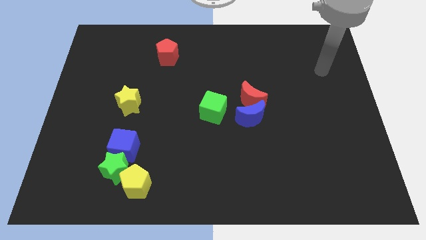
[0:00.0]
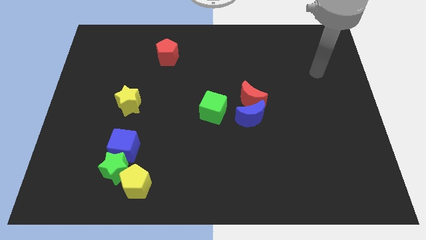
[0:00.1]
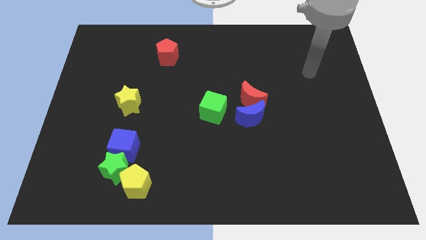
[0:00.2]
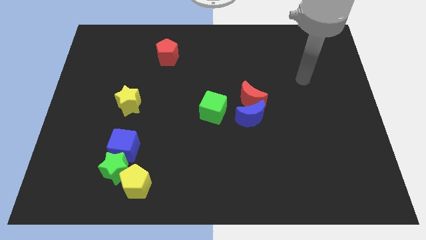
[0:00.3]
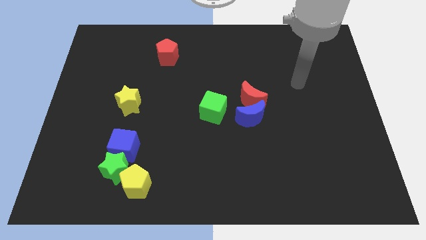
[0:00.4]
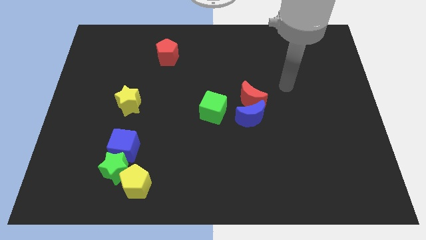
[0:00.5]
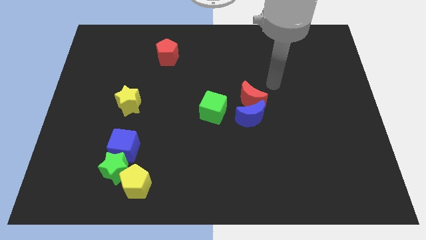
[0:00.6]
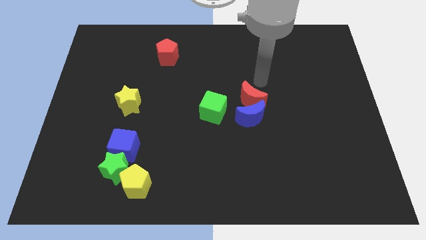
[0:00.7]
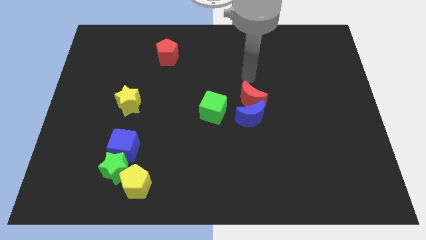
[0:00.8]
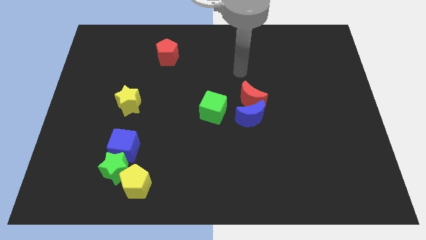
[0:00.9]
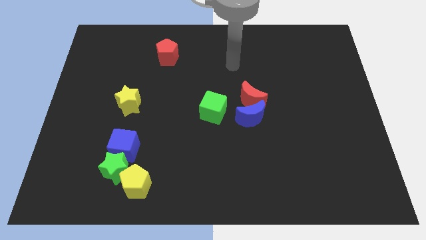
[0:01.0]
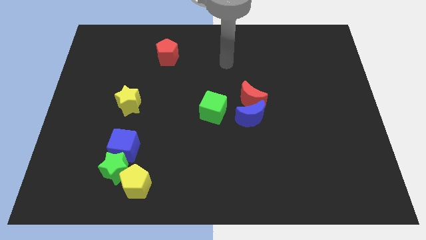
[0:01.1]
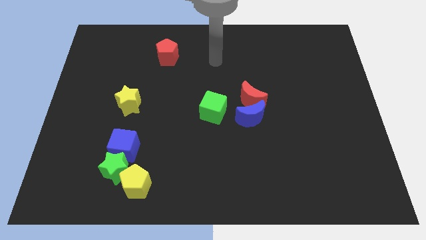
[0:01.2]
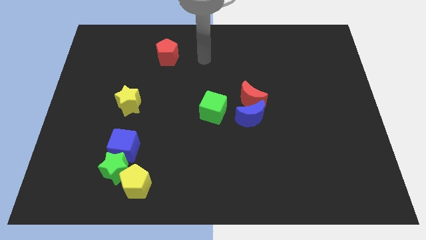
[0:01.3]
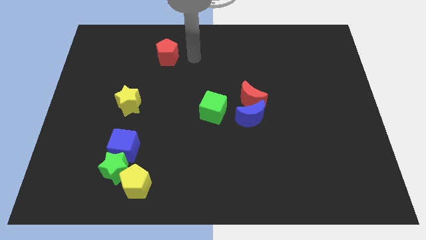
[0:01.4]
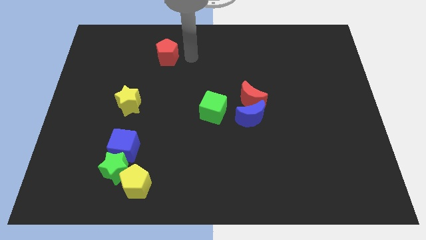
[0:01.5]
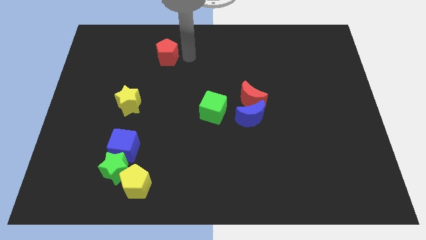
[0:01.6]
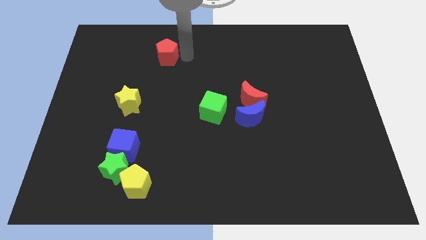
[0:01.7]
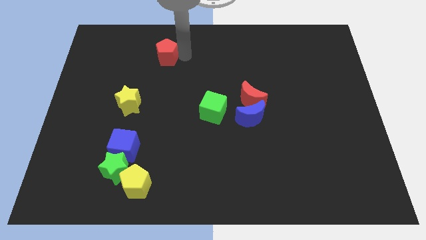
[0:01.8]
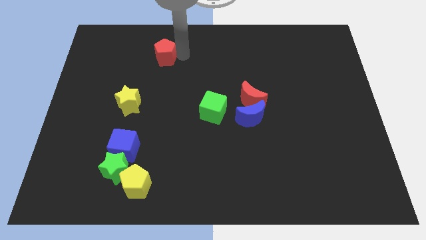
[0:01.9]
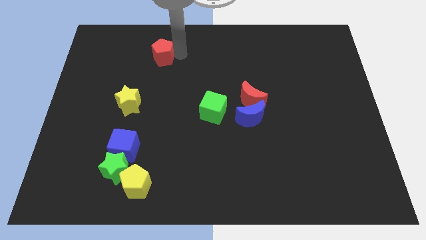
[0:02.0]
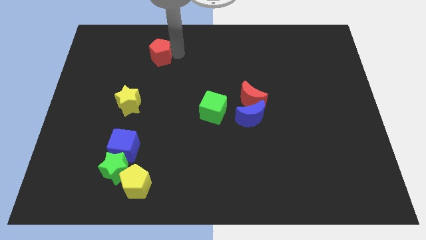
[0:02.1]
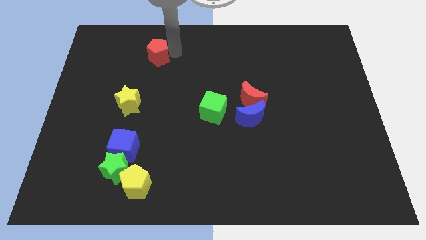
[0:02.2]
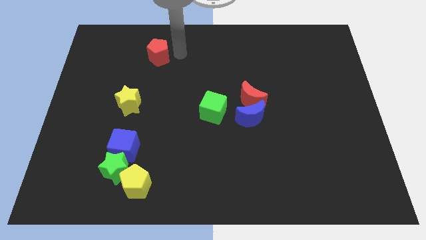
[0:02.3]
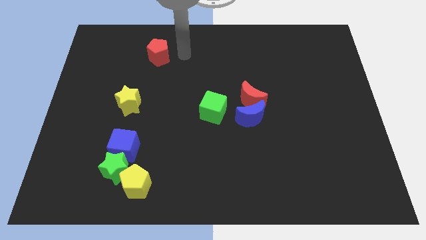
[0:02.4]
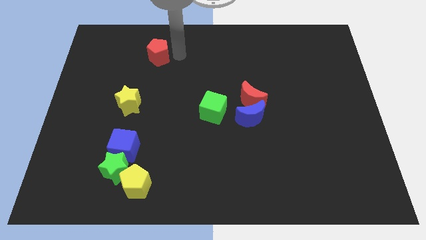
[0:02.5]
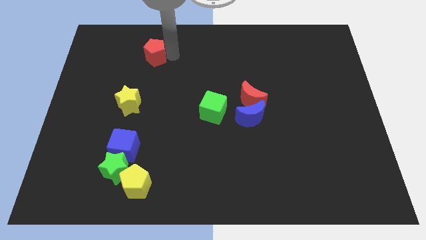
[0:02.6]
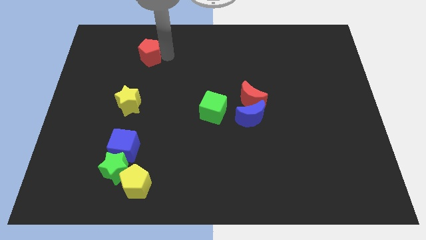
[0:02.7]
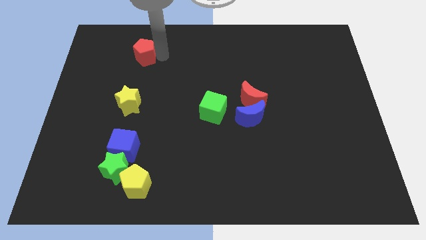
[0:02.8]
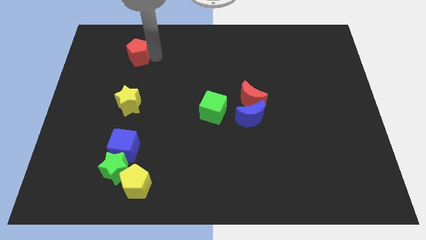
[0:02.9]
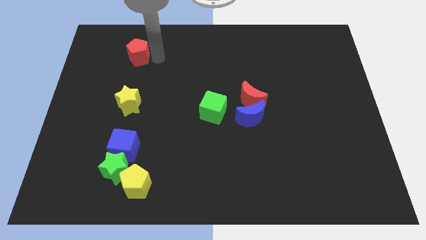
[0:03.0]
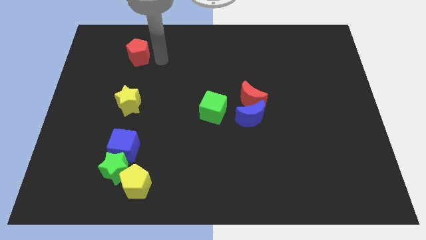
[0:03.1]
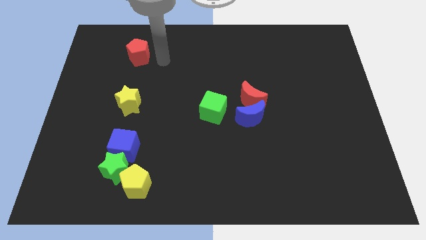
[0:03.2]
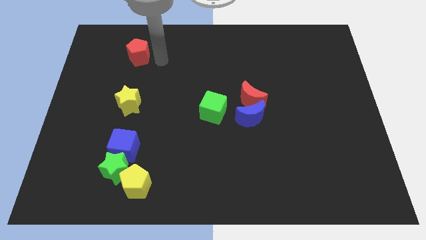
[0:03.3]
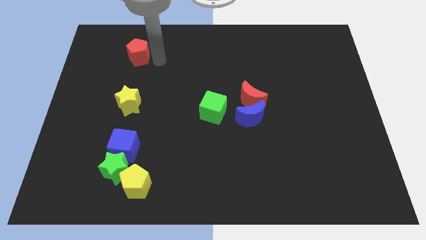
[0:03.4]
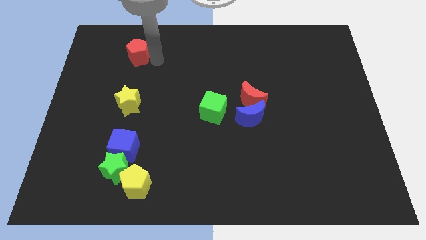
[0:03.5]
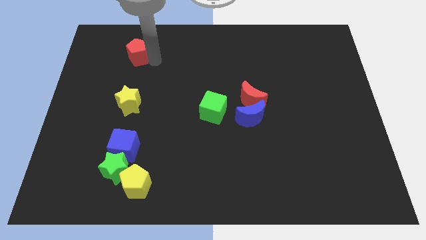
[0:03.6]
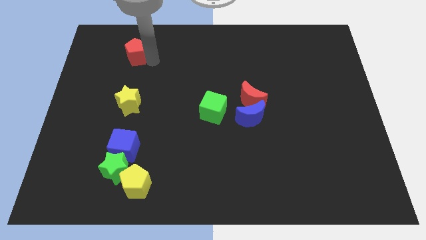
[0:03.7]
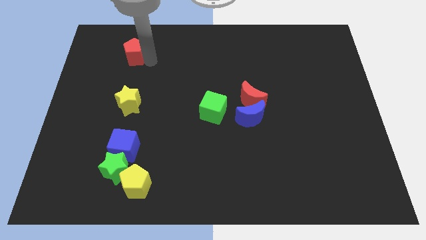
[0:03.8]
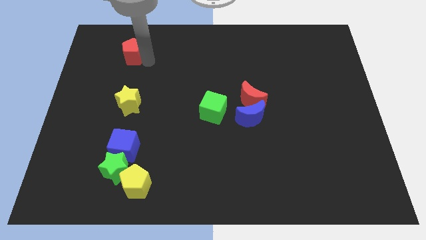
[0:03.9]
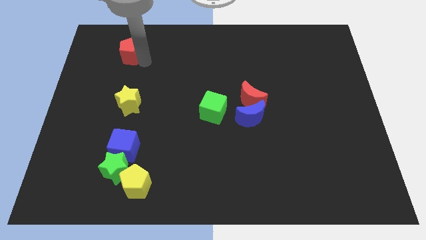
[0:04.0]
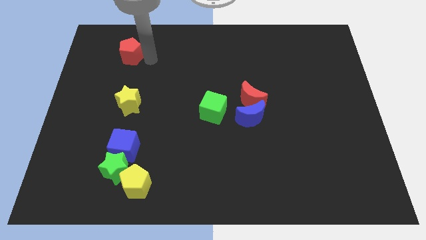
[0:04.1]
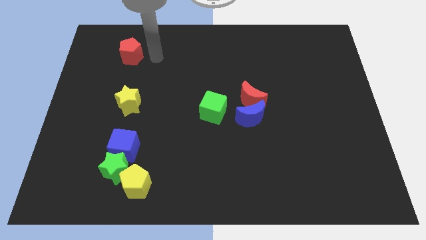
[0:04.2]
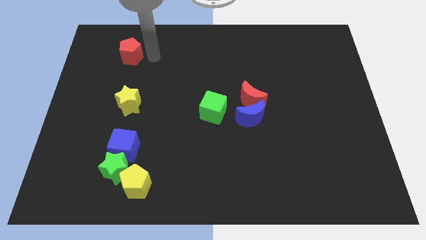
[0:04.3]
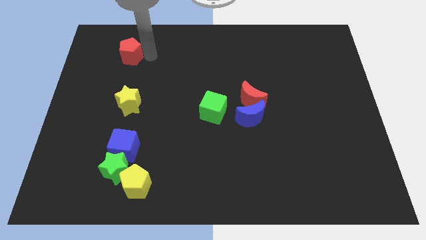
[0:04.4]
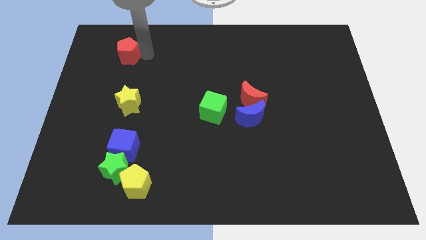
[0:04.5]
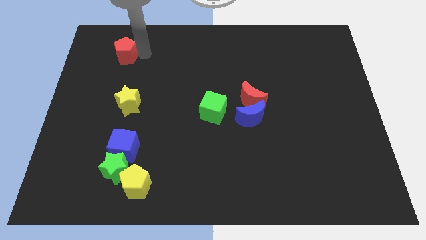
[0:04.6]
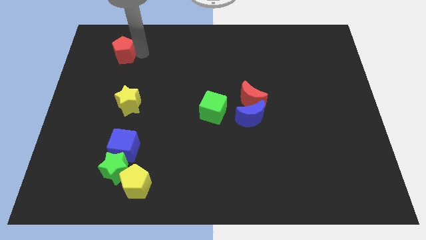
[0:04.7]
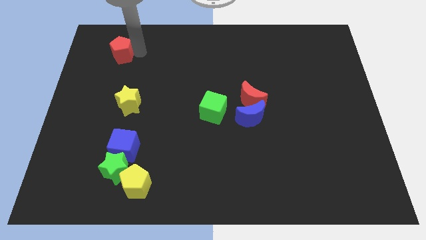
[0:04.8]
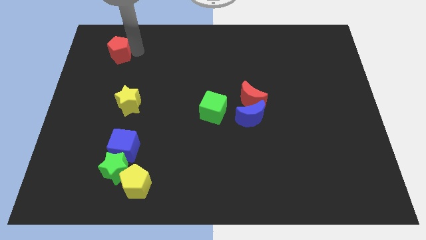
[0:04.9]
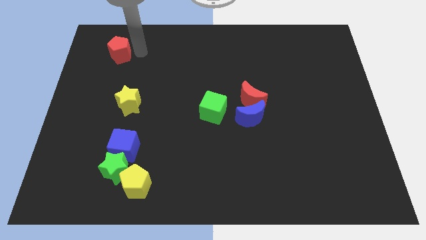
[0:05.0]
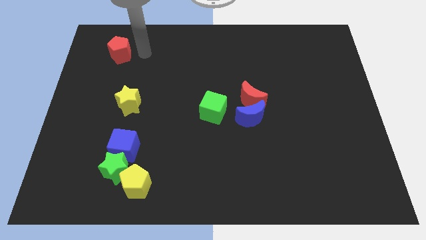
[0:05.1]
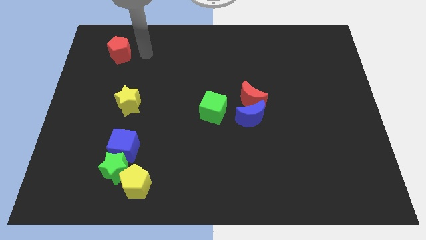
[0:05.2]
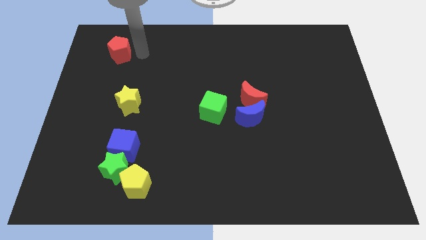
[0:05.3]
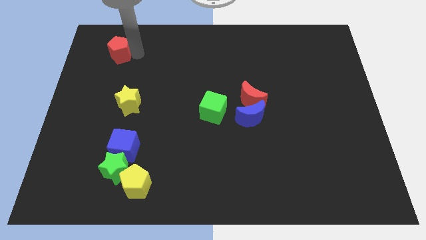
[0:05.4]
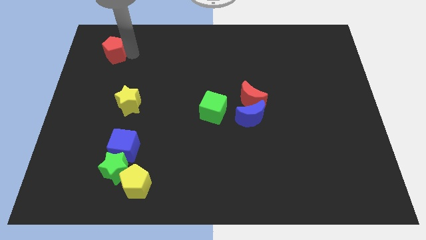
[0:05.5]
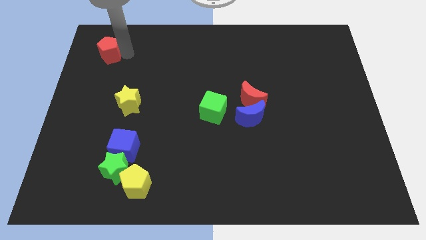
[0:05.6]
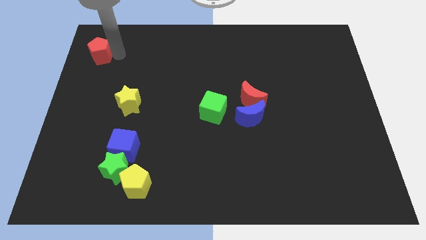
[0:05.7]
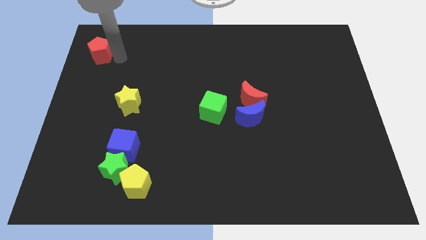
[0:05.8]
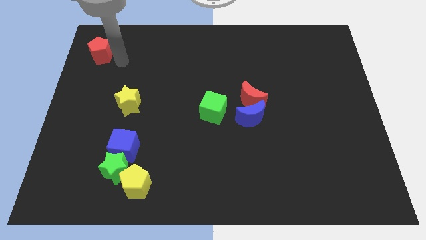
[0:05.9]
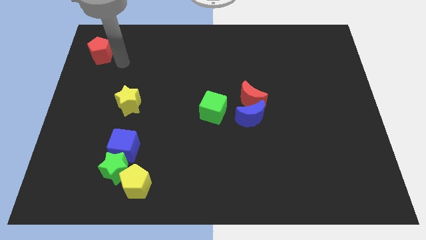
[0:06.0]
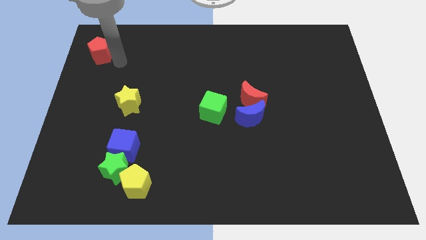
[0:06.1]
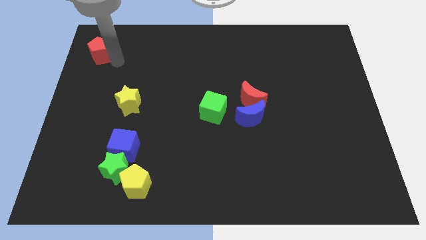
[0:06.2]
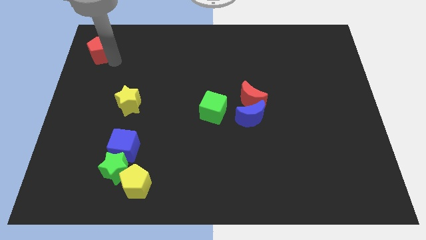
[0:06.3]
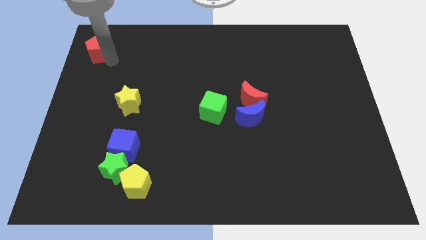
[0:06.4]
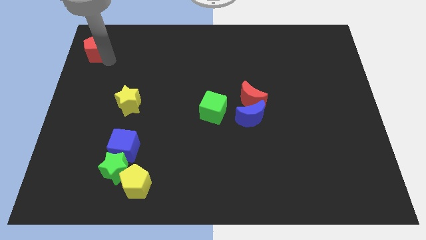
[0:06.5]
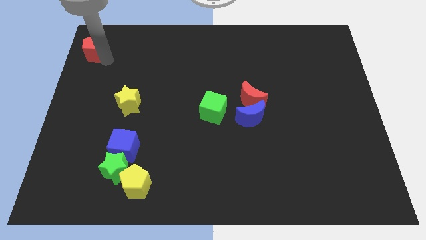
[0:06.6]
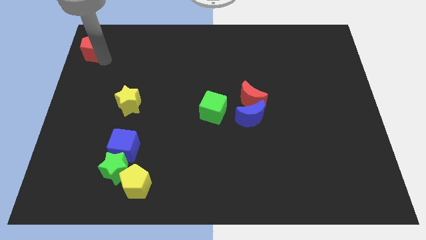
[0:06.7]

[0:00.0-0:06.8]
slide the red pentagon to the top left corner
